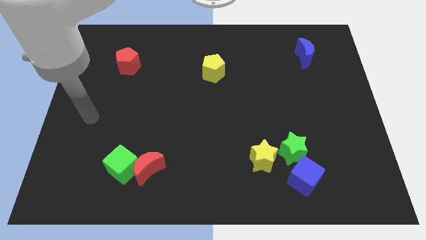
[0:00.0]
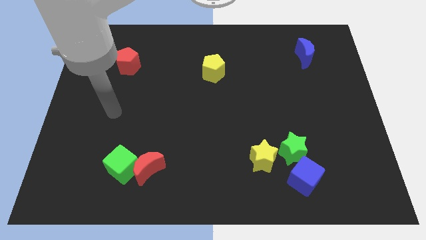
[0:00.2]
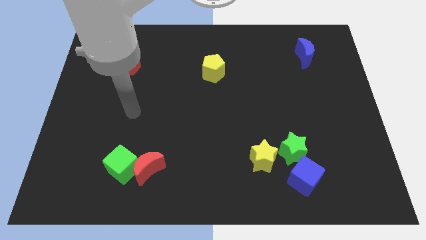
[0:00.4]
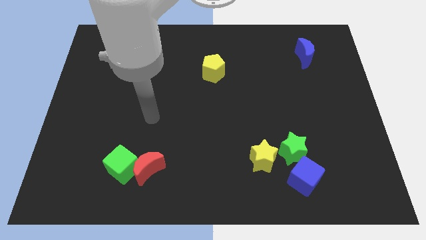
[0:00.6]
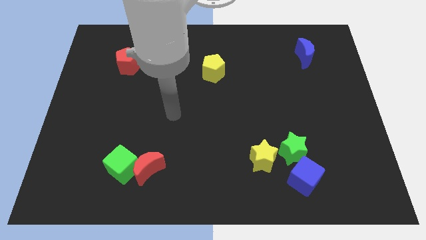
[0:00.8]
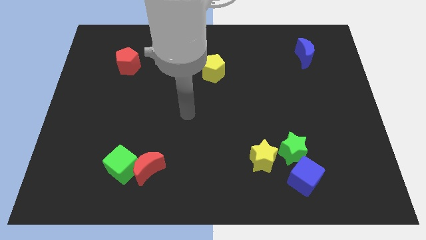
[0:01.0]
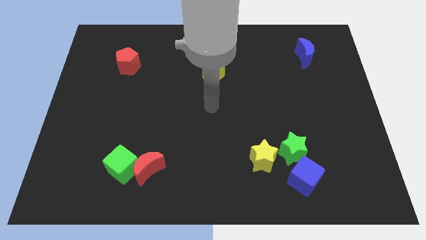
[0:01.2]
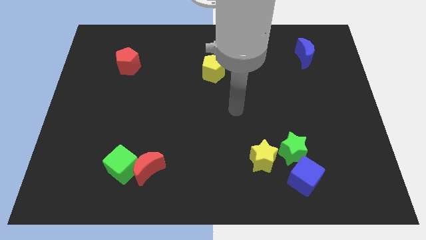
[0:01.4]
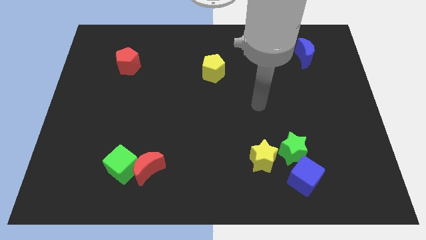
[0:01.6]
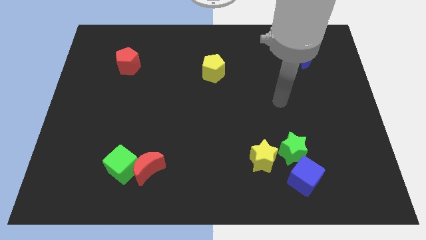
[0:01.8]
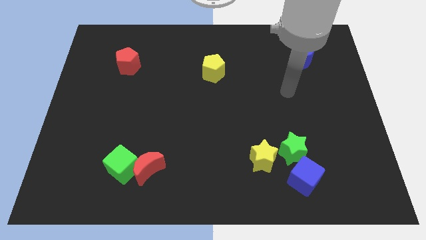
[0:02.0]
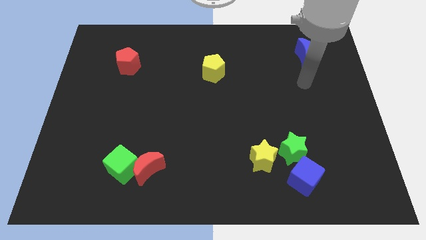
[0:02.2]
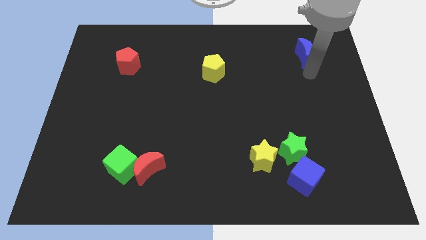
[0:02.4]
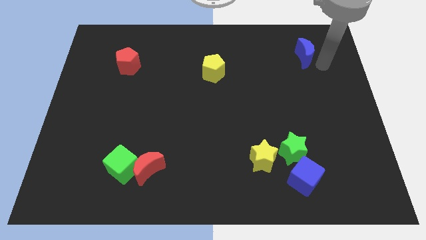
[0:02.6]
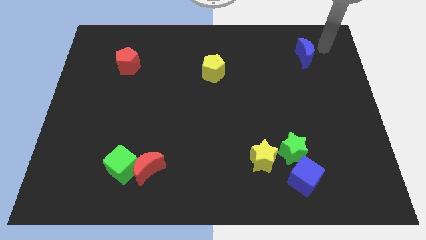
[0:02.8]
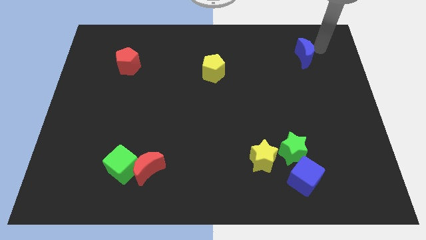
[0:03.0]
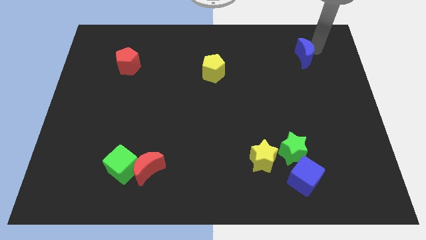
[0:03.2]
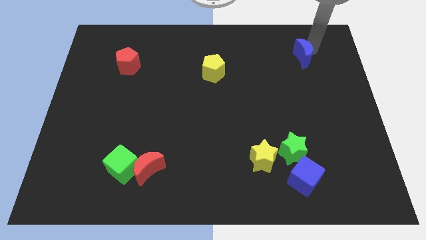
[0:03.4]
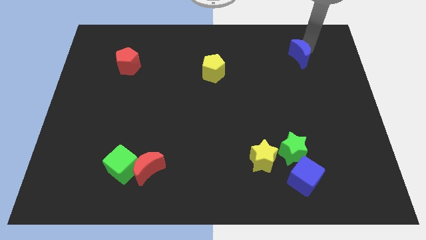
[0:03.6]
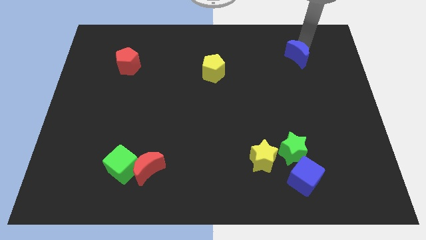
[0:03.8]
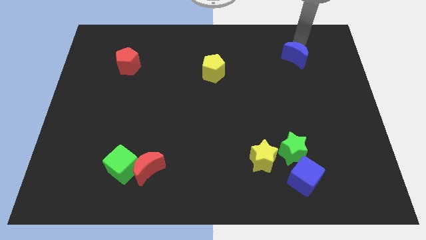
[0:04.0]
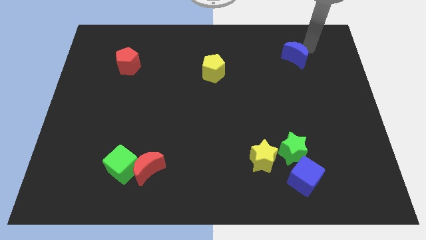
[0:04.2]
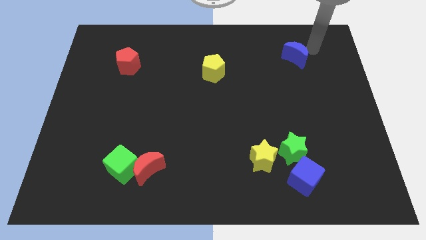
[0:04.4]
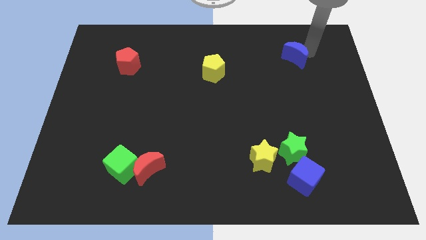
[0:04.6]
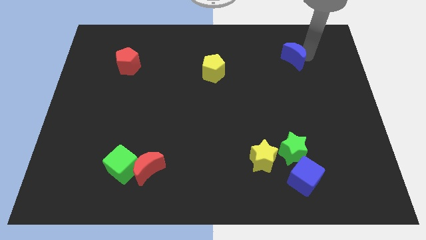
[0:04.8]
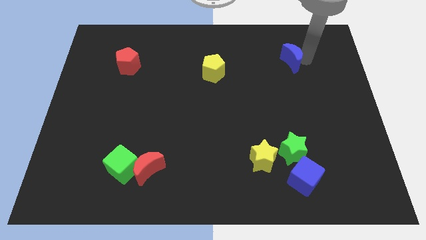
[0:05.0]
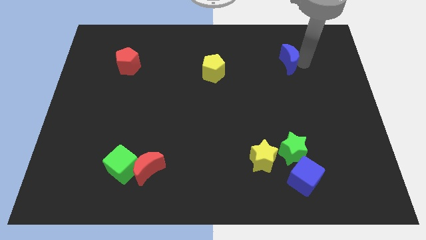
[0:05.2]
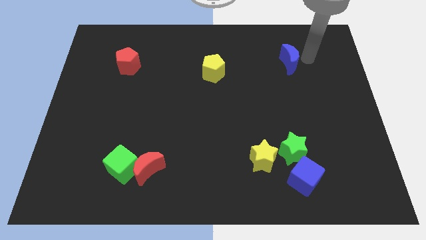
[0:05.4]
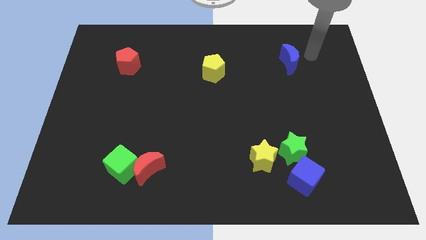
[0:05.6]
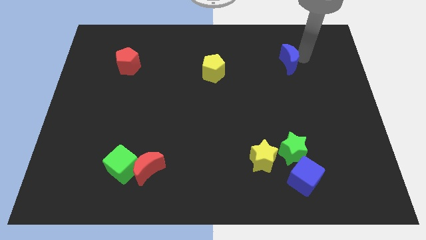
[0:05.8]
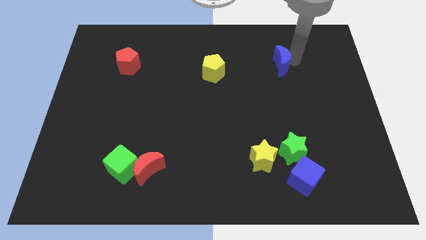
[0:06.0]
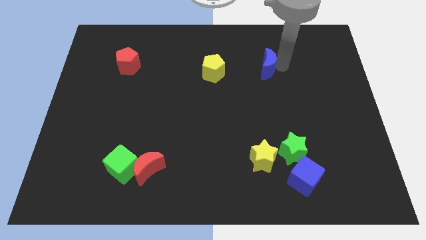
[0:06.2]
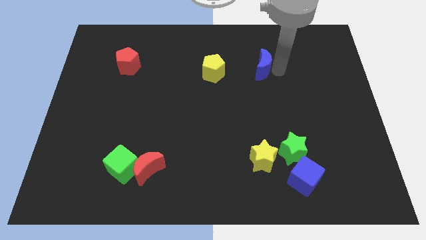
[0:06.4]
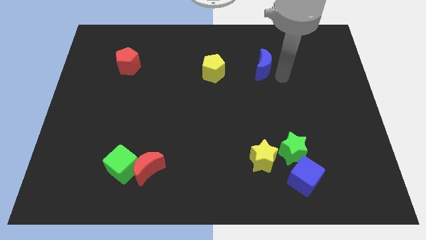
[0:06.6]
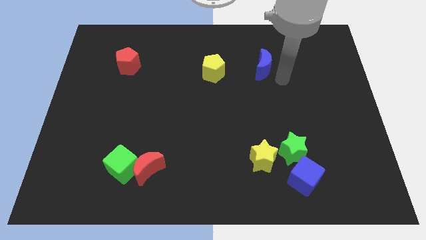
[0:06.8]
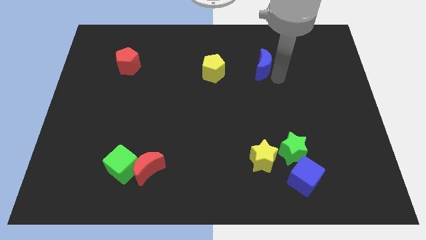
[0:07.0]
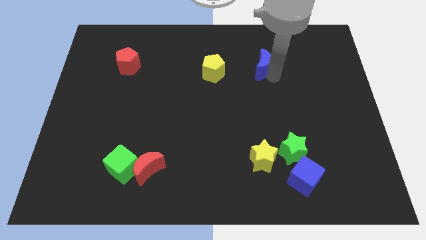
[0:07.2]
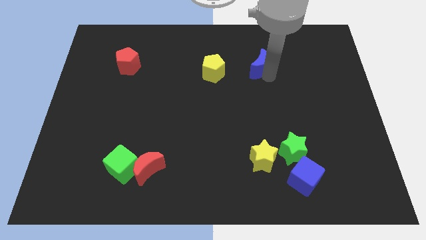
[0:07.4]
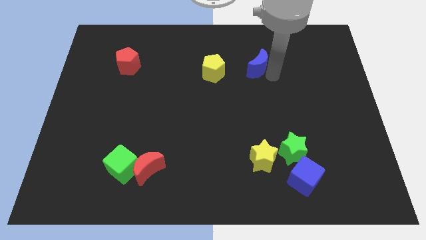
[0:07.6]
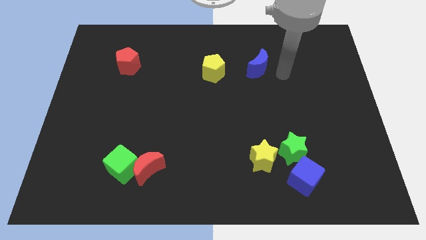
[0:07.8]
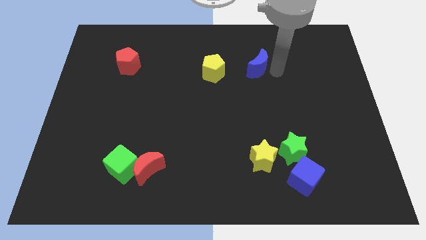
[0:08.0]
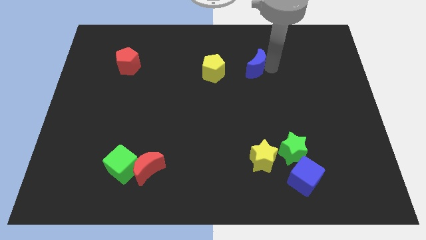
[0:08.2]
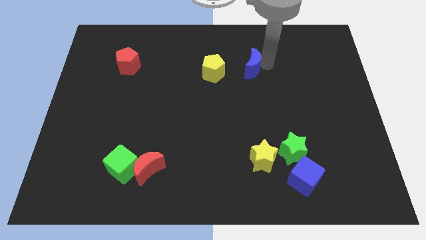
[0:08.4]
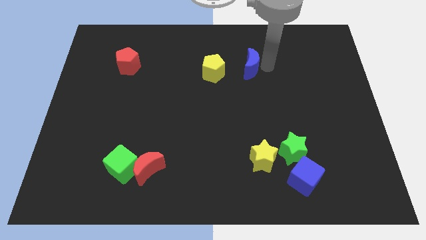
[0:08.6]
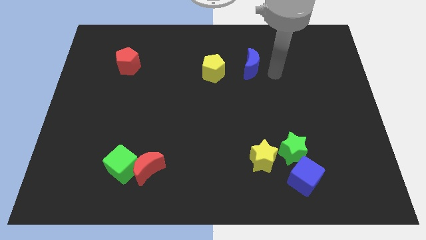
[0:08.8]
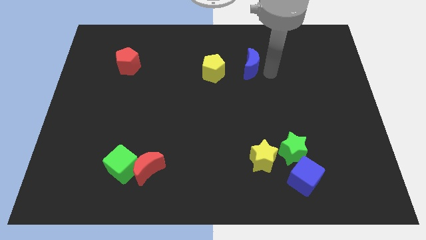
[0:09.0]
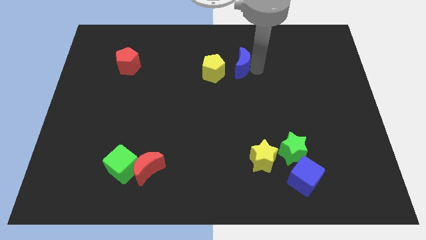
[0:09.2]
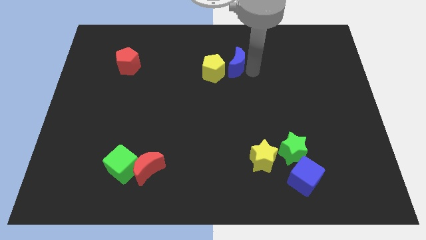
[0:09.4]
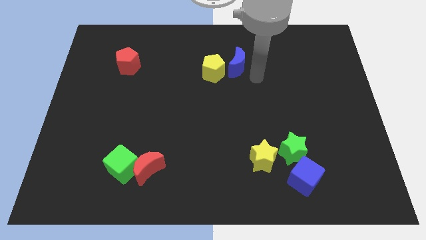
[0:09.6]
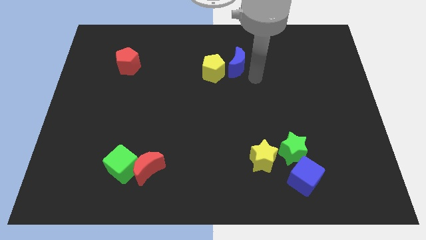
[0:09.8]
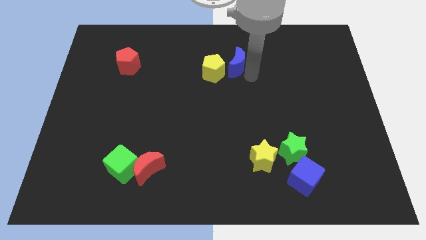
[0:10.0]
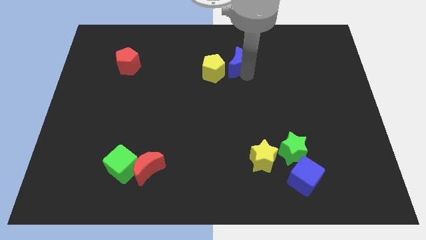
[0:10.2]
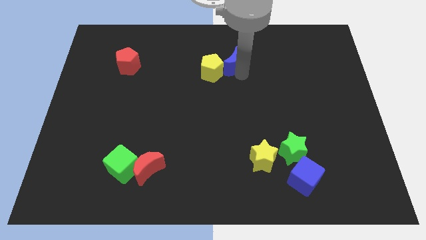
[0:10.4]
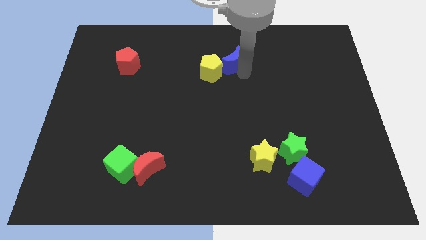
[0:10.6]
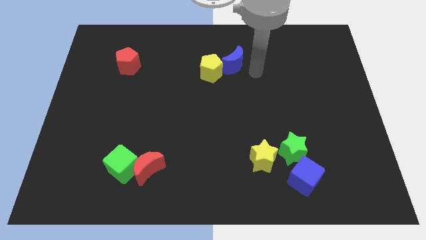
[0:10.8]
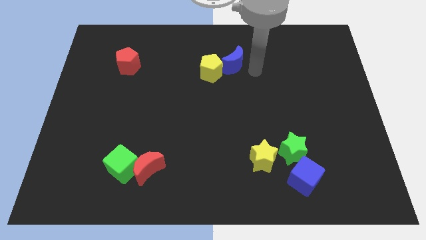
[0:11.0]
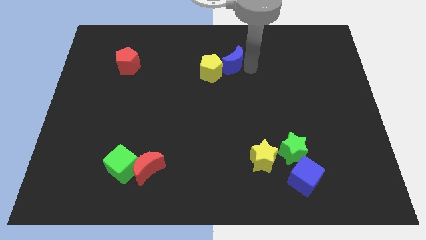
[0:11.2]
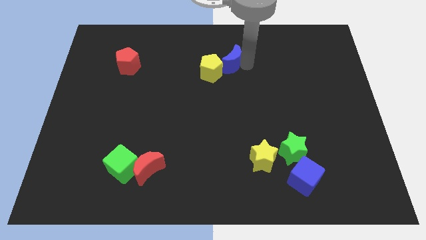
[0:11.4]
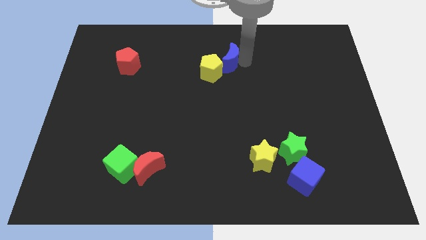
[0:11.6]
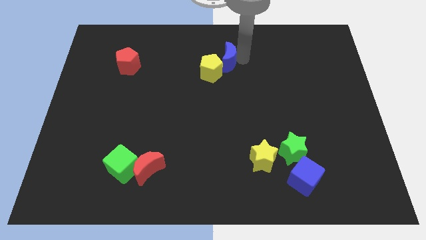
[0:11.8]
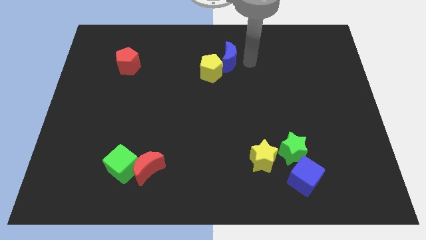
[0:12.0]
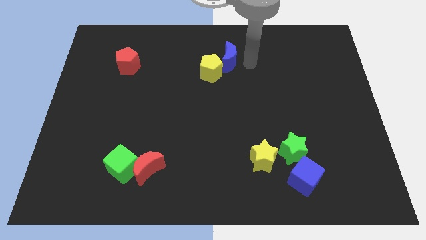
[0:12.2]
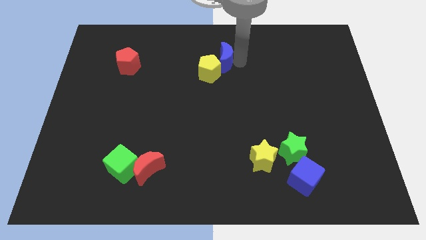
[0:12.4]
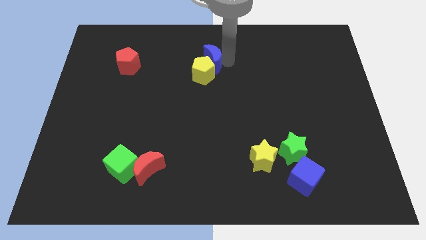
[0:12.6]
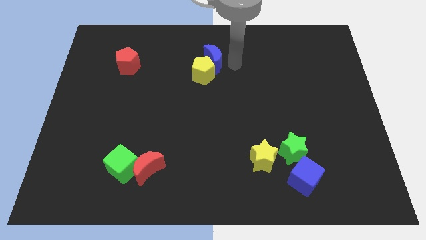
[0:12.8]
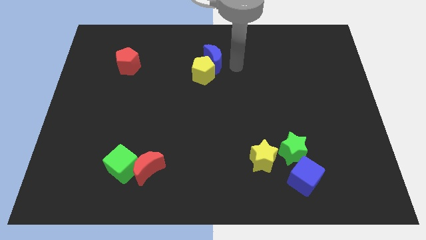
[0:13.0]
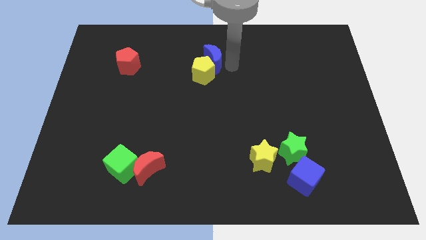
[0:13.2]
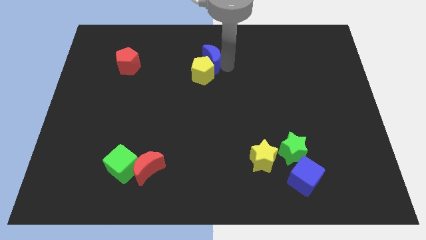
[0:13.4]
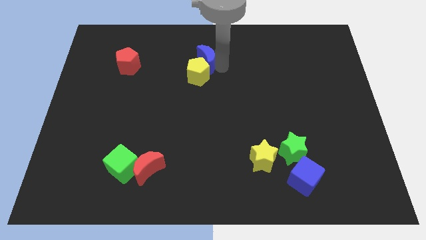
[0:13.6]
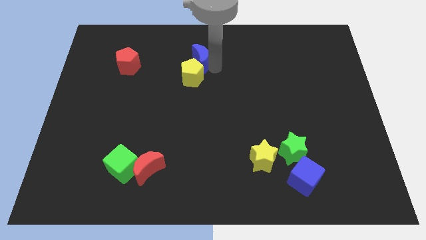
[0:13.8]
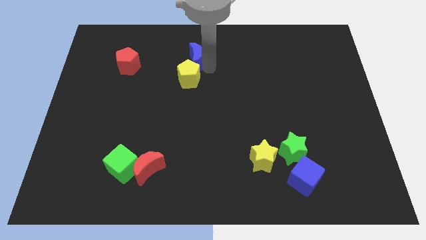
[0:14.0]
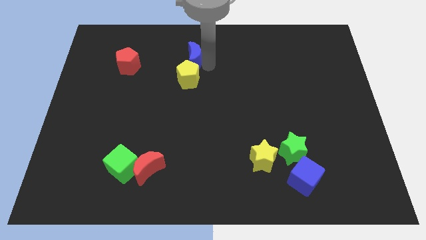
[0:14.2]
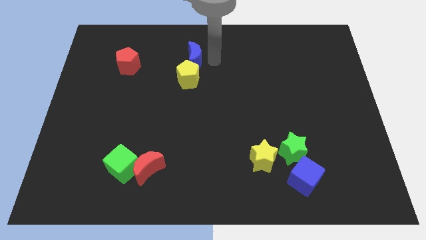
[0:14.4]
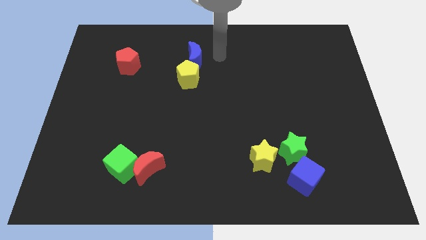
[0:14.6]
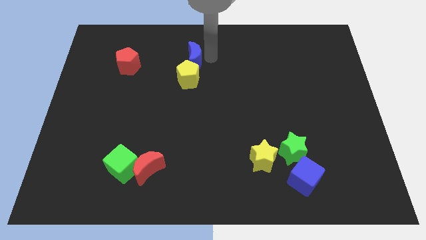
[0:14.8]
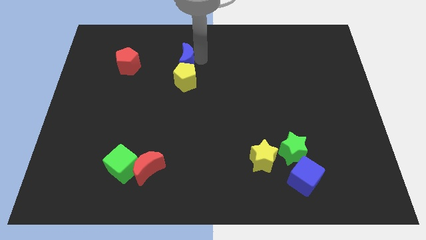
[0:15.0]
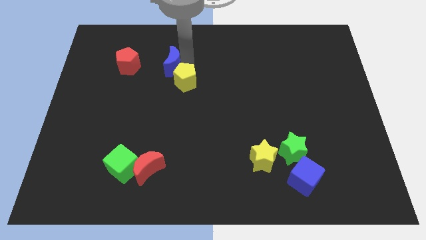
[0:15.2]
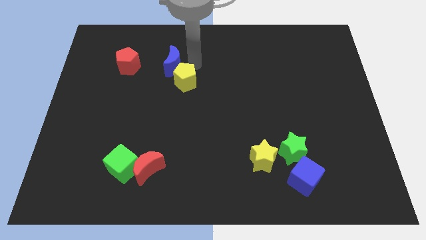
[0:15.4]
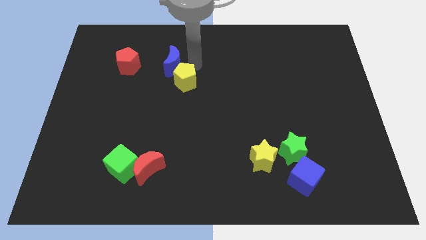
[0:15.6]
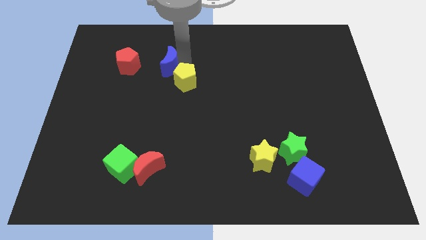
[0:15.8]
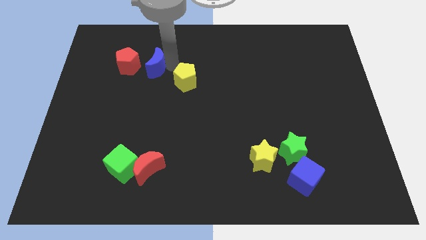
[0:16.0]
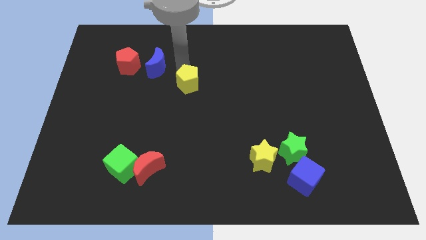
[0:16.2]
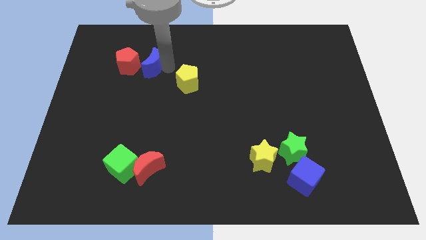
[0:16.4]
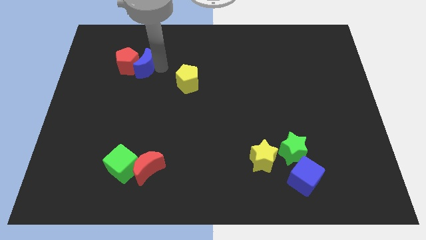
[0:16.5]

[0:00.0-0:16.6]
put the blue moon next to the red pentagon
